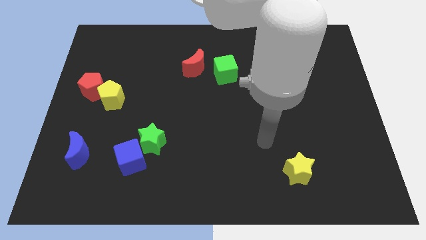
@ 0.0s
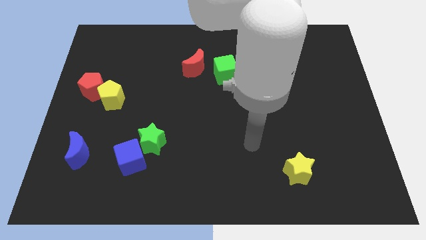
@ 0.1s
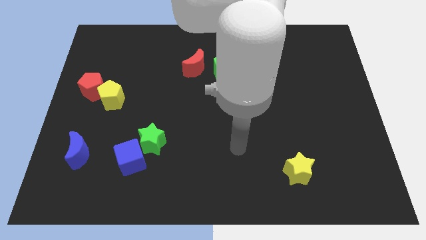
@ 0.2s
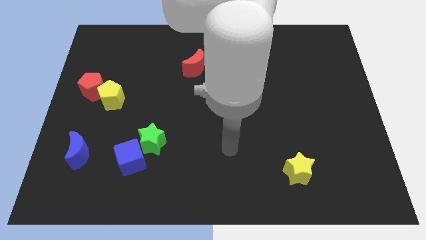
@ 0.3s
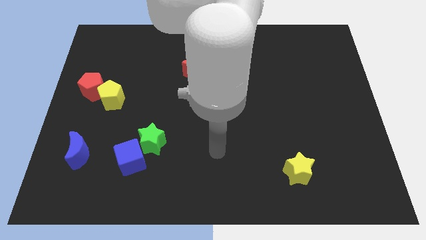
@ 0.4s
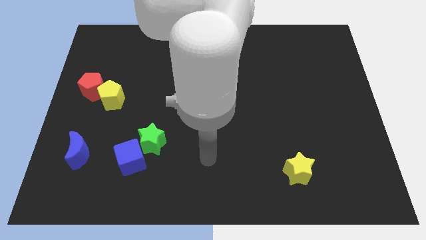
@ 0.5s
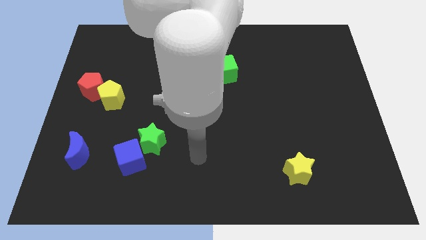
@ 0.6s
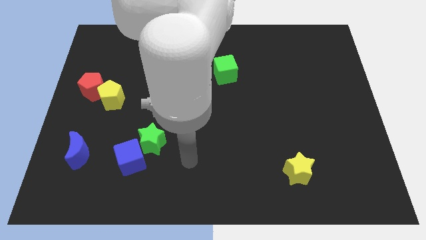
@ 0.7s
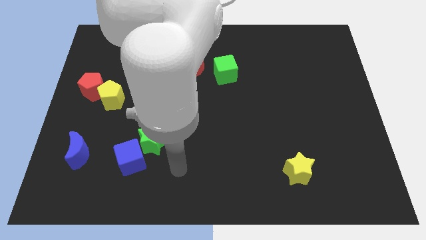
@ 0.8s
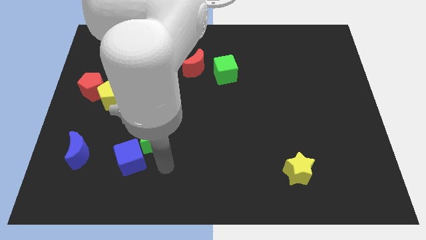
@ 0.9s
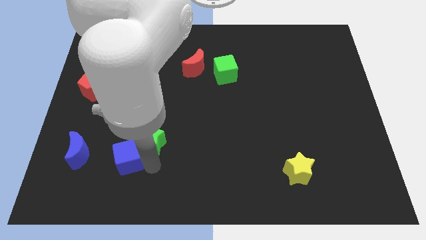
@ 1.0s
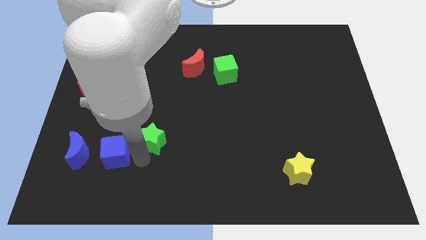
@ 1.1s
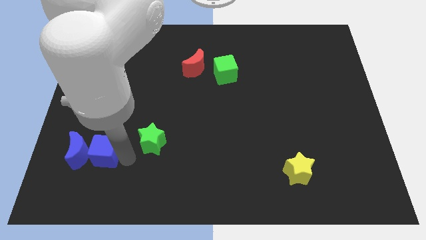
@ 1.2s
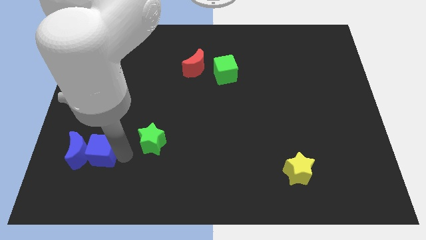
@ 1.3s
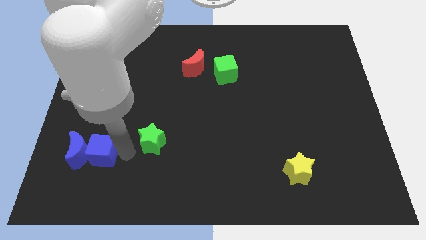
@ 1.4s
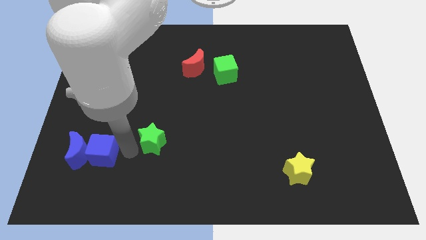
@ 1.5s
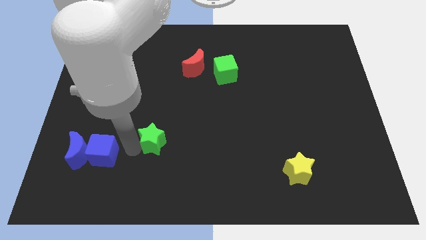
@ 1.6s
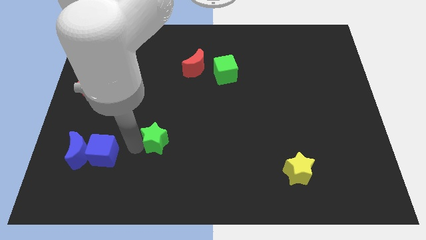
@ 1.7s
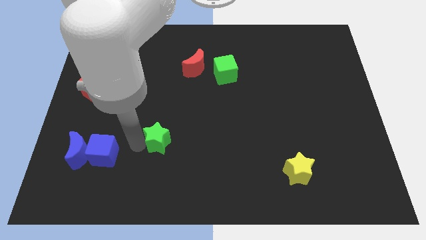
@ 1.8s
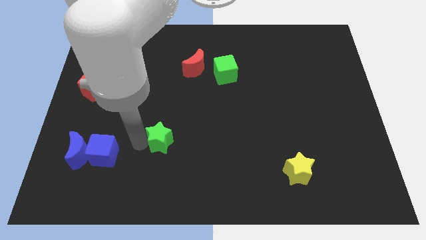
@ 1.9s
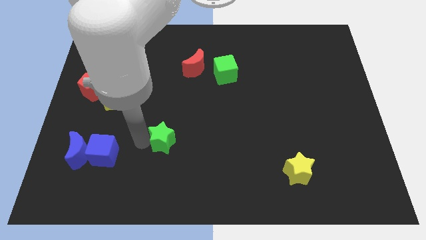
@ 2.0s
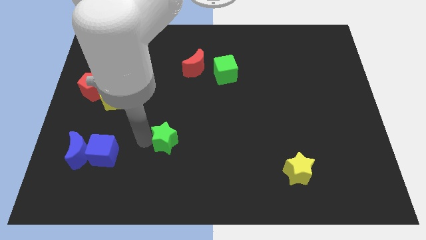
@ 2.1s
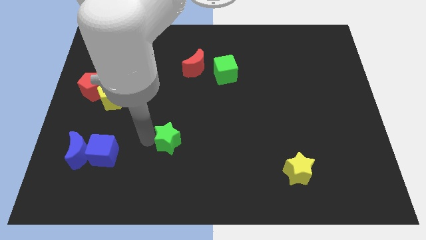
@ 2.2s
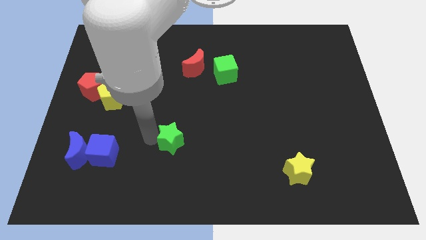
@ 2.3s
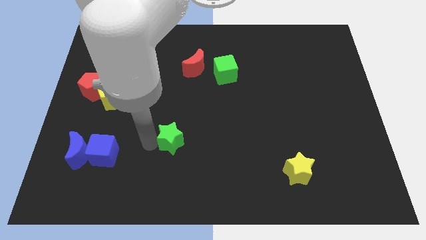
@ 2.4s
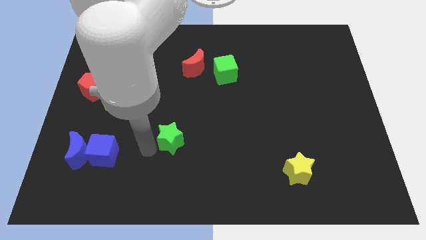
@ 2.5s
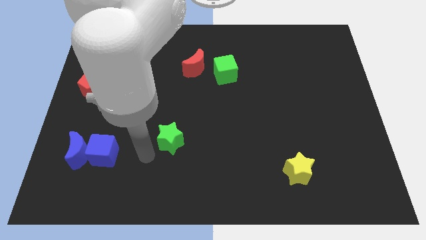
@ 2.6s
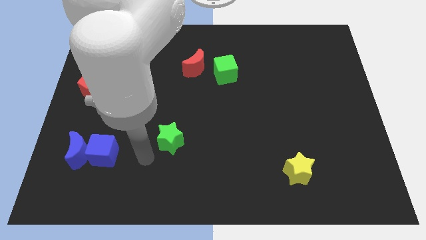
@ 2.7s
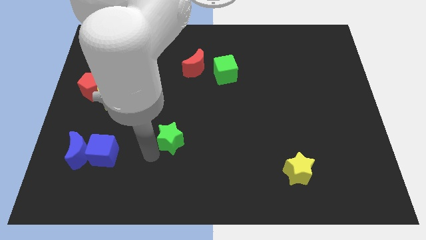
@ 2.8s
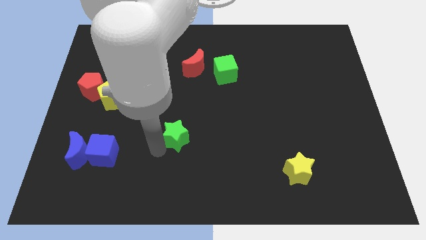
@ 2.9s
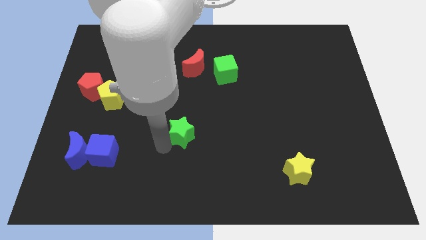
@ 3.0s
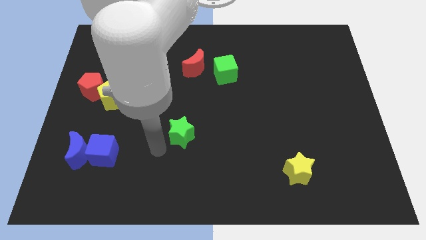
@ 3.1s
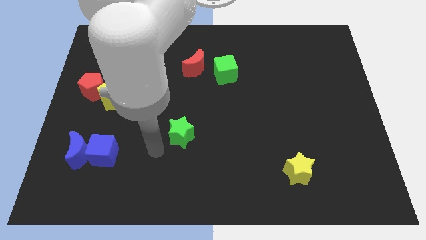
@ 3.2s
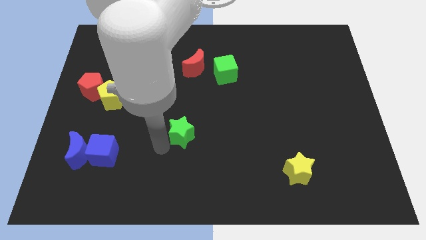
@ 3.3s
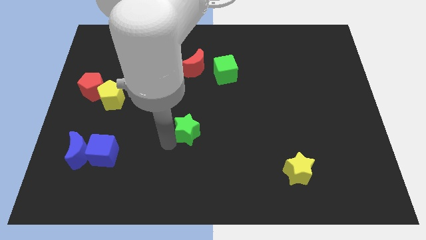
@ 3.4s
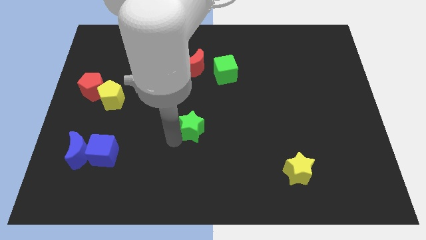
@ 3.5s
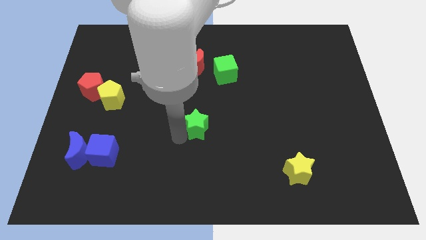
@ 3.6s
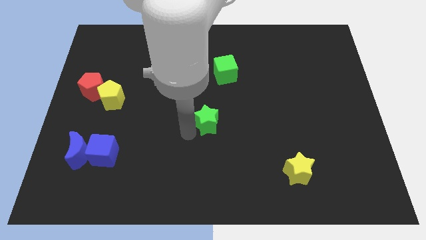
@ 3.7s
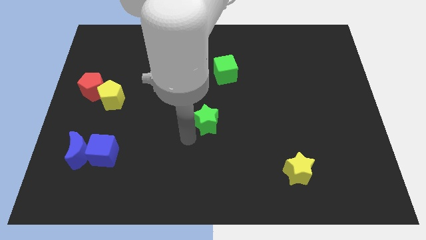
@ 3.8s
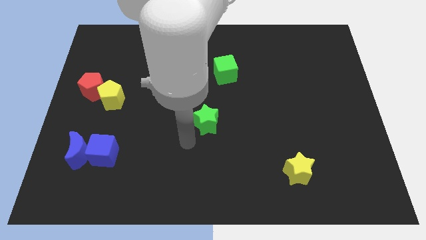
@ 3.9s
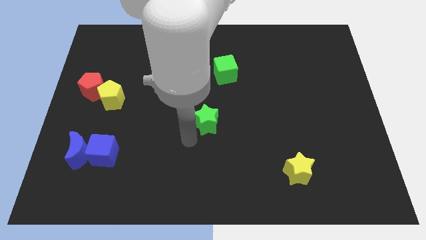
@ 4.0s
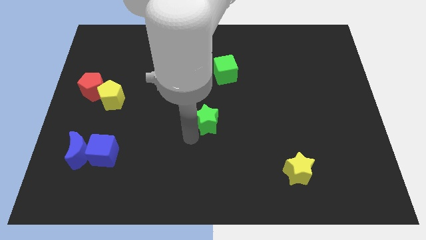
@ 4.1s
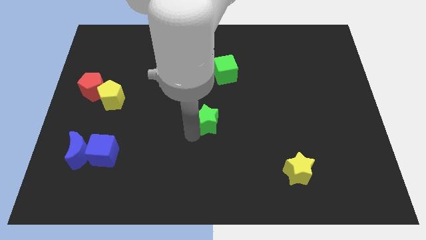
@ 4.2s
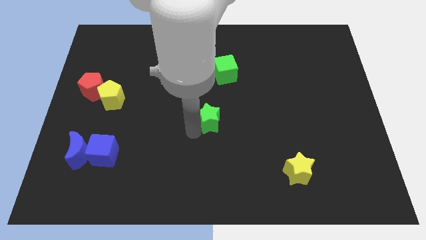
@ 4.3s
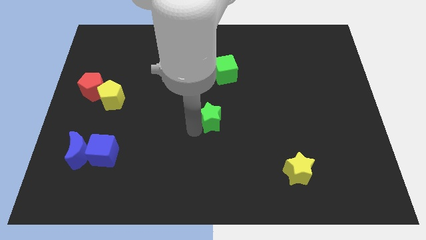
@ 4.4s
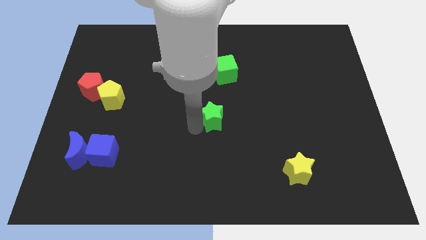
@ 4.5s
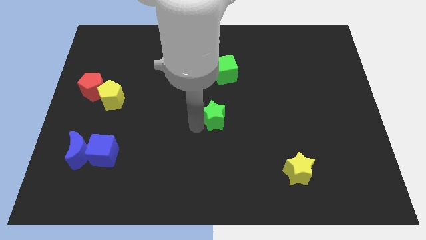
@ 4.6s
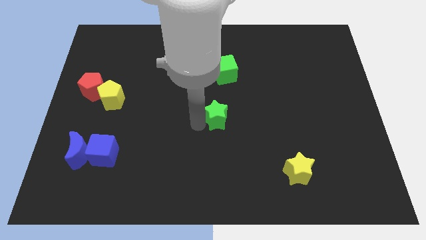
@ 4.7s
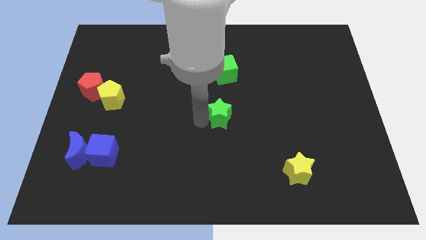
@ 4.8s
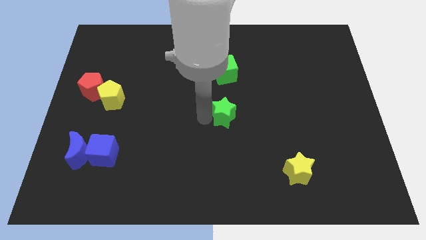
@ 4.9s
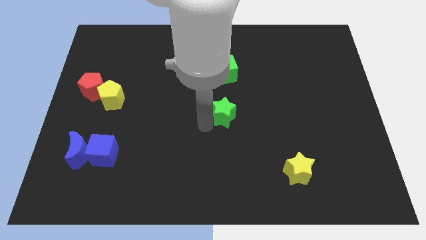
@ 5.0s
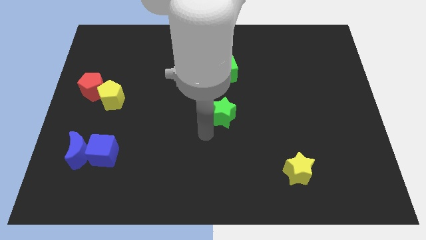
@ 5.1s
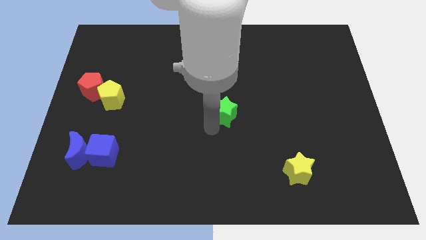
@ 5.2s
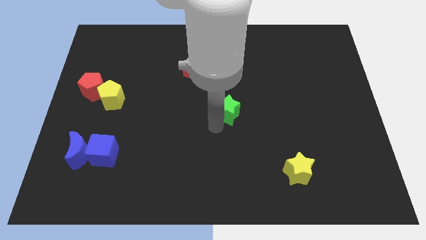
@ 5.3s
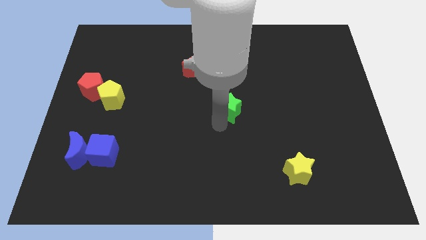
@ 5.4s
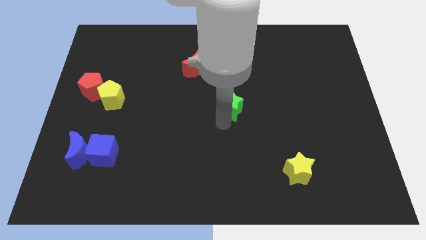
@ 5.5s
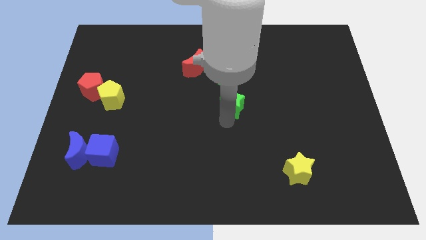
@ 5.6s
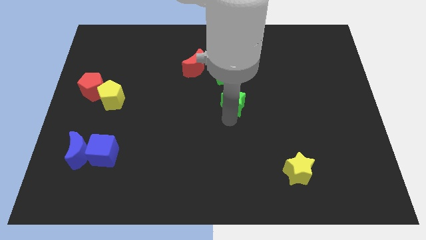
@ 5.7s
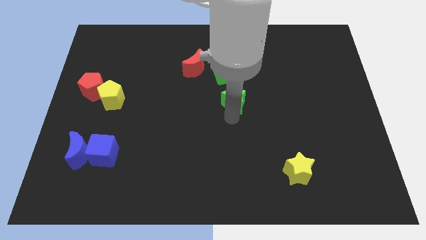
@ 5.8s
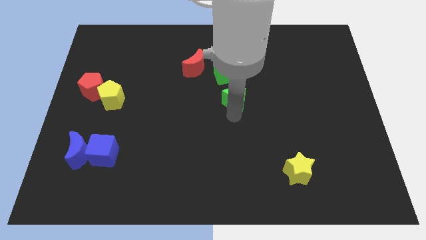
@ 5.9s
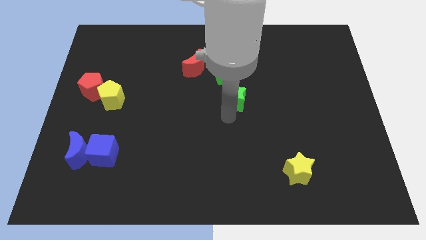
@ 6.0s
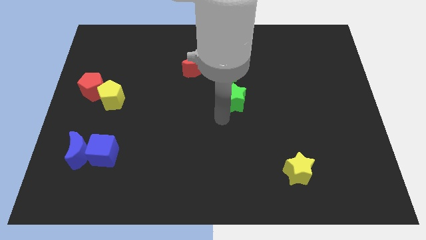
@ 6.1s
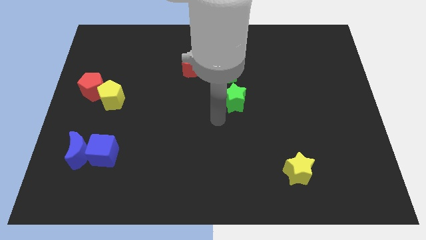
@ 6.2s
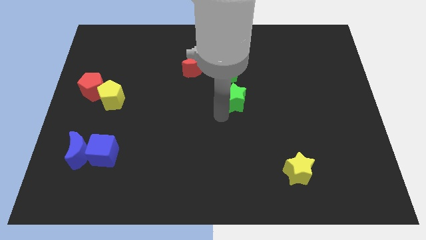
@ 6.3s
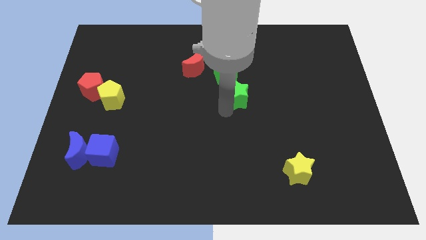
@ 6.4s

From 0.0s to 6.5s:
put the green star diagonally down and to the right of the green cube

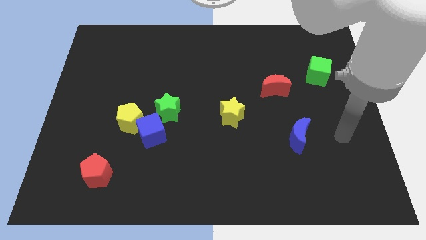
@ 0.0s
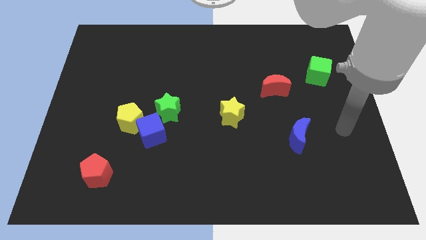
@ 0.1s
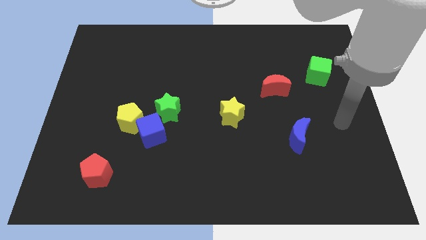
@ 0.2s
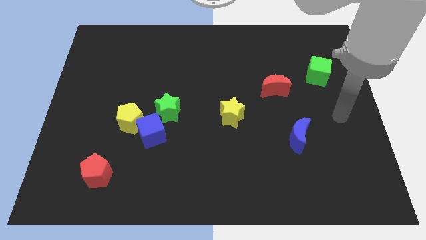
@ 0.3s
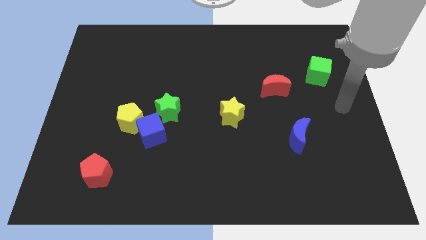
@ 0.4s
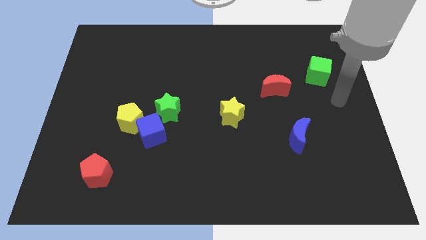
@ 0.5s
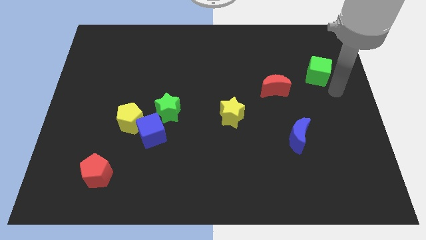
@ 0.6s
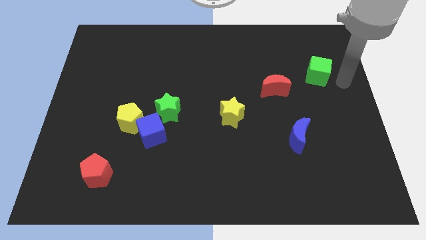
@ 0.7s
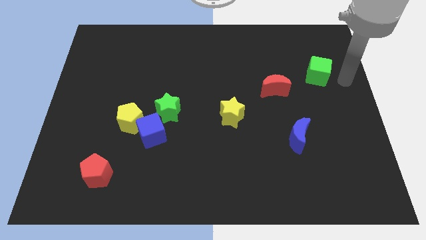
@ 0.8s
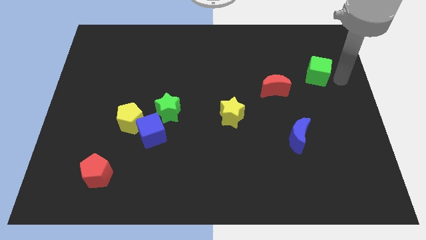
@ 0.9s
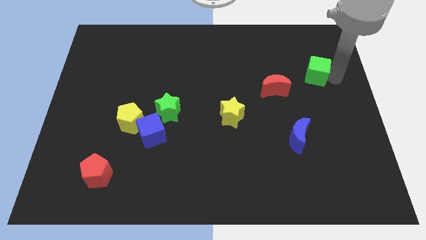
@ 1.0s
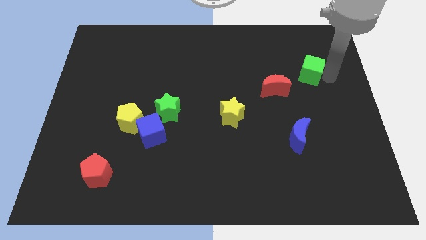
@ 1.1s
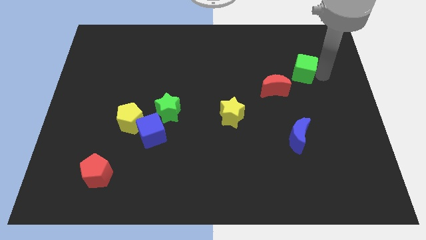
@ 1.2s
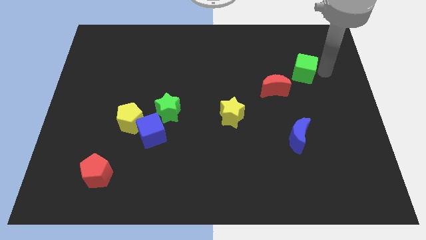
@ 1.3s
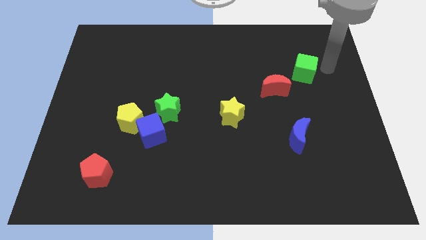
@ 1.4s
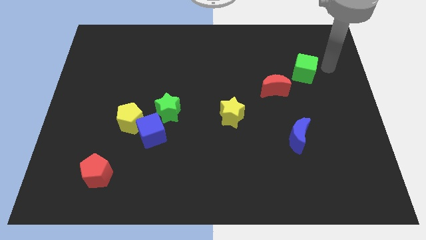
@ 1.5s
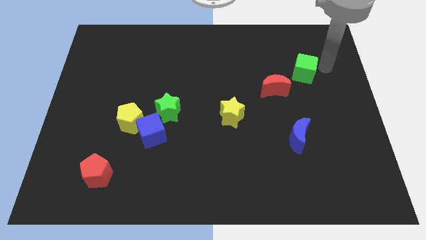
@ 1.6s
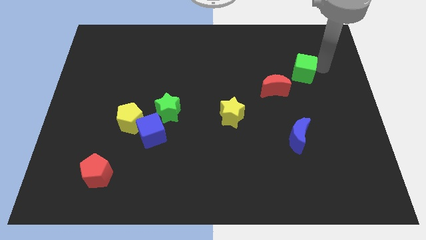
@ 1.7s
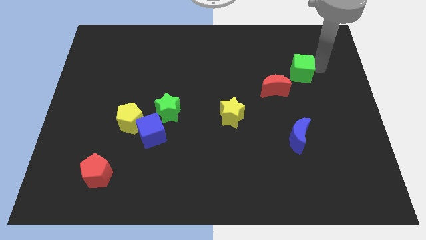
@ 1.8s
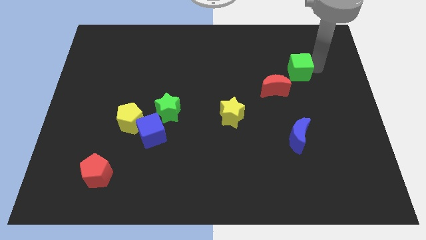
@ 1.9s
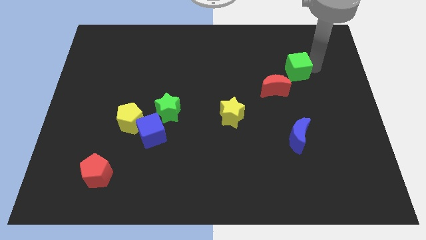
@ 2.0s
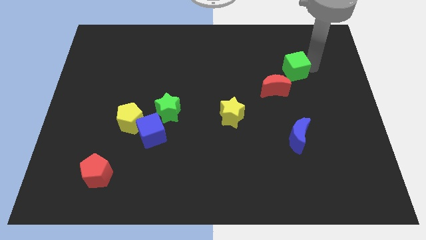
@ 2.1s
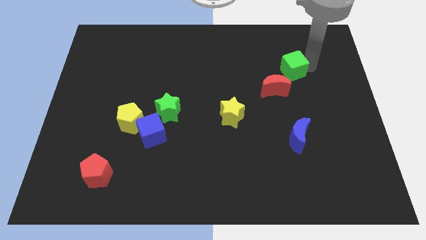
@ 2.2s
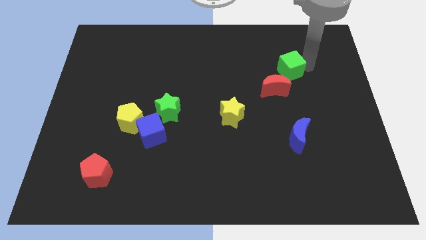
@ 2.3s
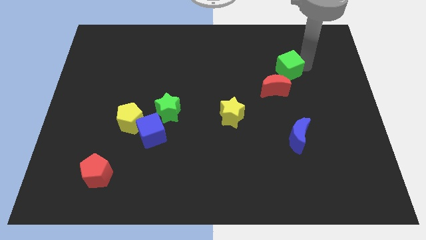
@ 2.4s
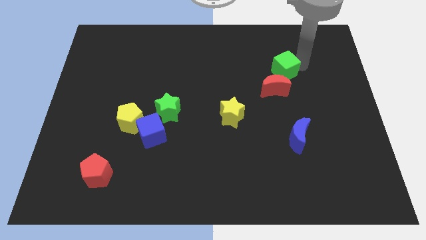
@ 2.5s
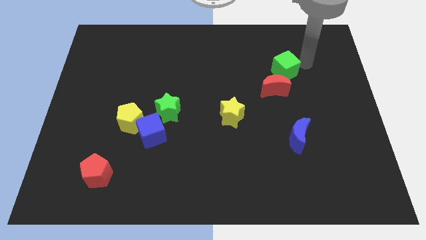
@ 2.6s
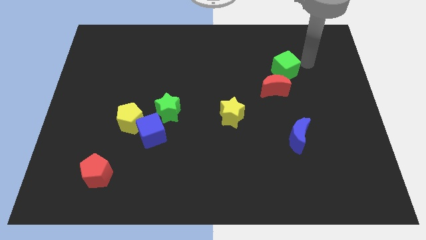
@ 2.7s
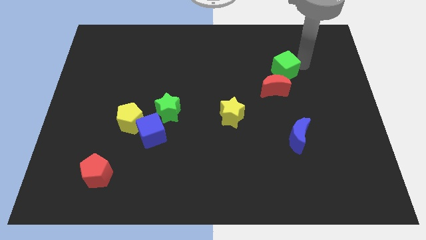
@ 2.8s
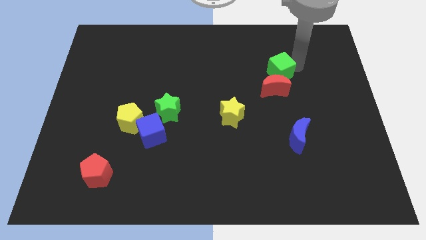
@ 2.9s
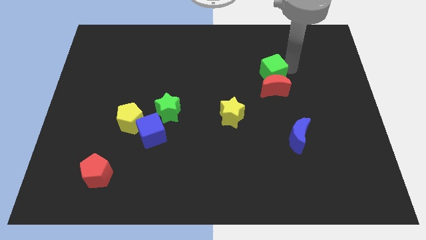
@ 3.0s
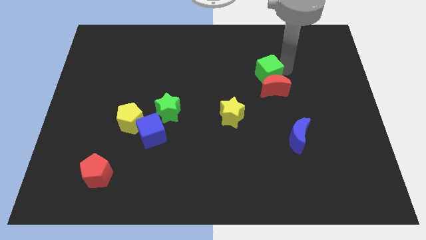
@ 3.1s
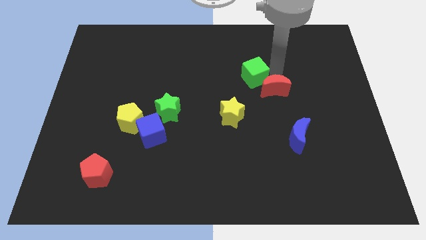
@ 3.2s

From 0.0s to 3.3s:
slide the green cube left of the red moon
